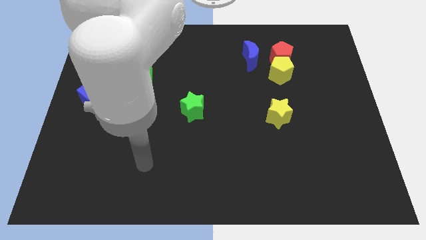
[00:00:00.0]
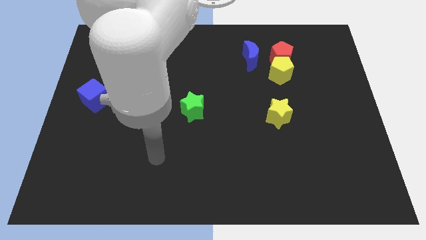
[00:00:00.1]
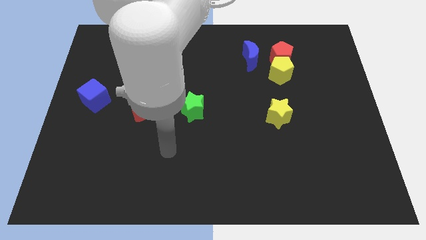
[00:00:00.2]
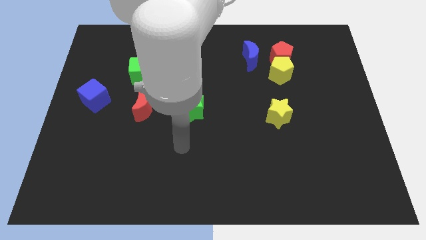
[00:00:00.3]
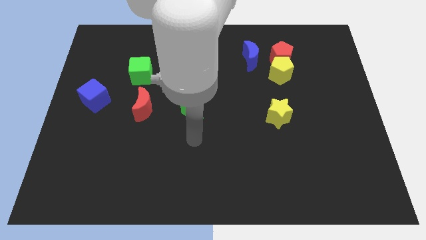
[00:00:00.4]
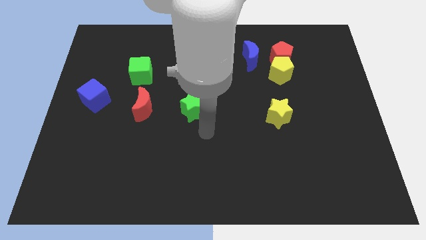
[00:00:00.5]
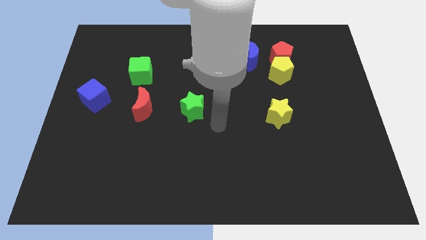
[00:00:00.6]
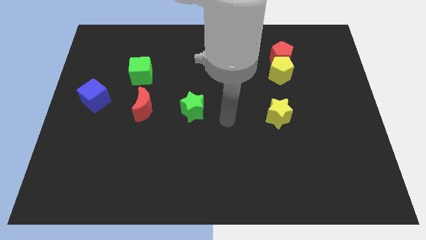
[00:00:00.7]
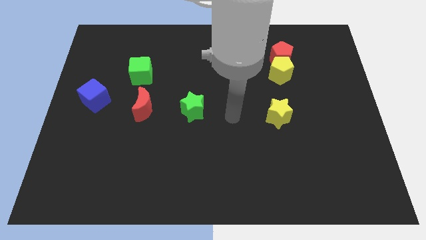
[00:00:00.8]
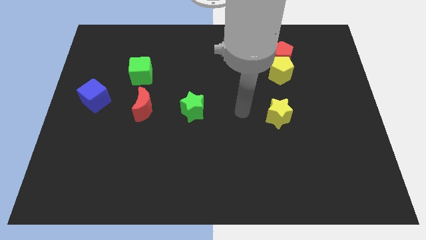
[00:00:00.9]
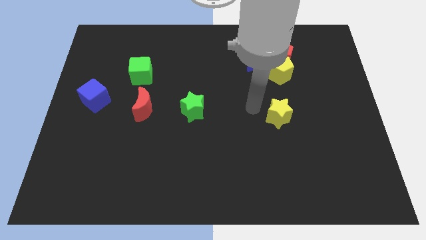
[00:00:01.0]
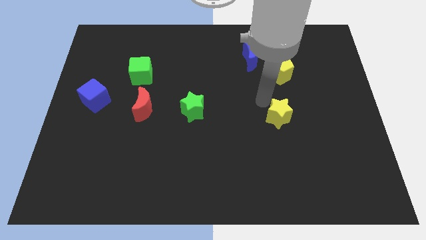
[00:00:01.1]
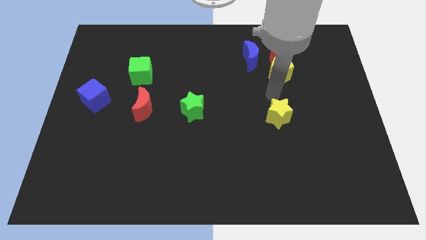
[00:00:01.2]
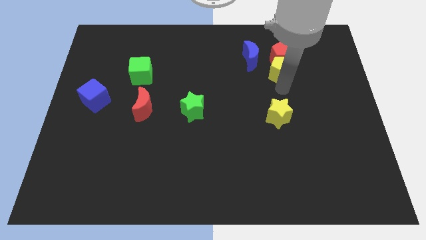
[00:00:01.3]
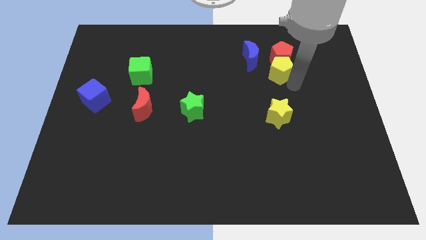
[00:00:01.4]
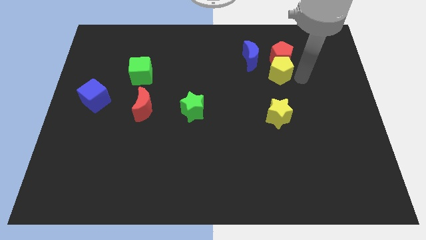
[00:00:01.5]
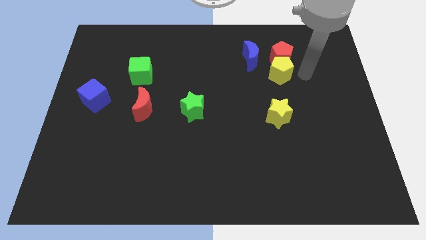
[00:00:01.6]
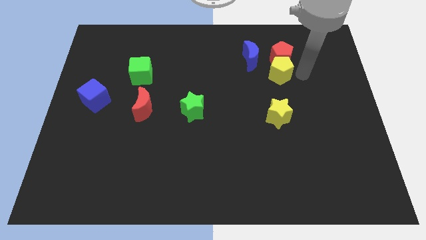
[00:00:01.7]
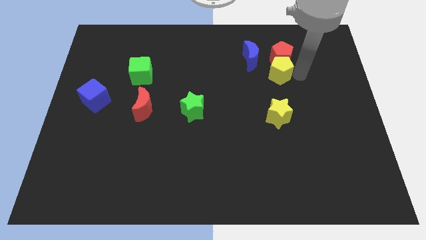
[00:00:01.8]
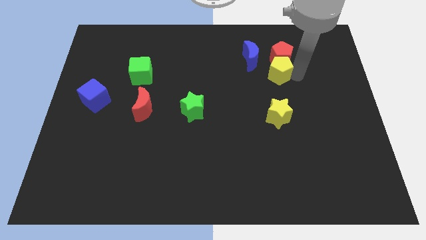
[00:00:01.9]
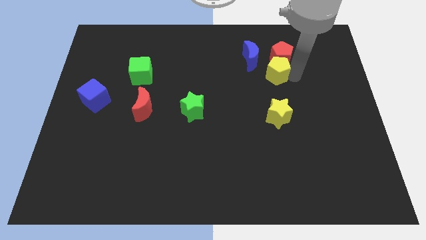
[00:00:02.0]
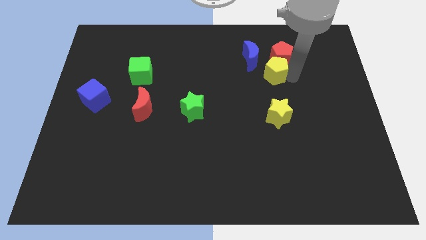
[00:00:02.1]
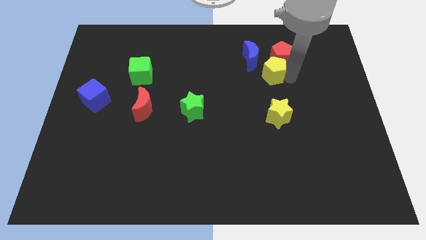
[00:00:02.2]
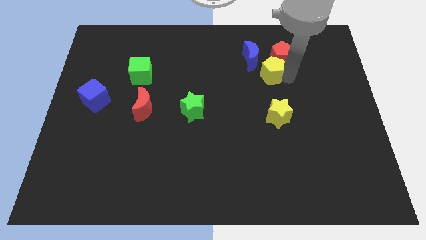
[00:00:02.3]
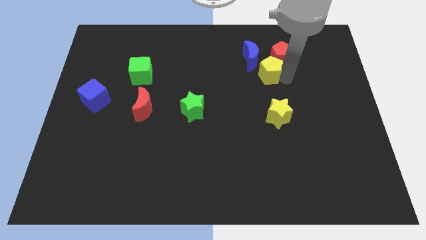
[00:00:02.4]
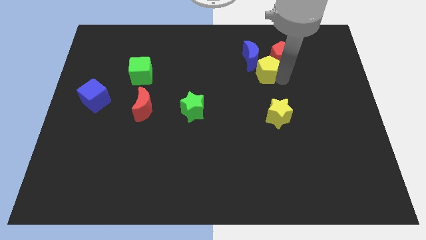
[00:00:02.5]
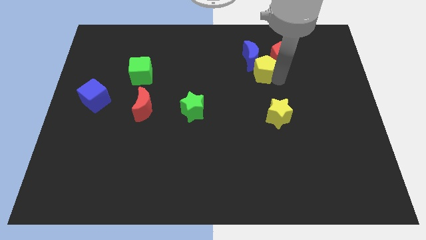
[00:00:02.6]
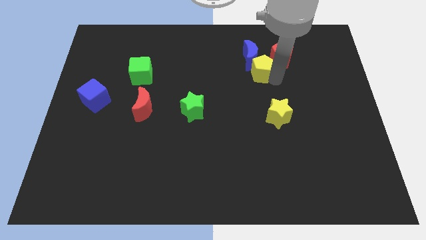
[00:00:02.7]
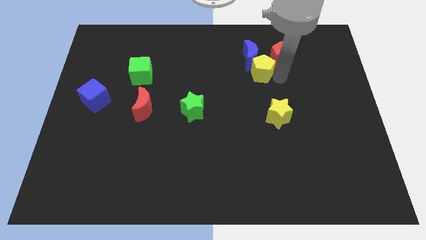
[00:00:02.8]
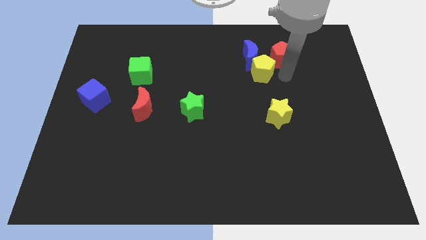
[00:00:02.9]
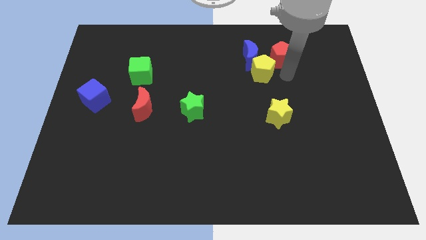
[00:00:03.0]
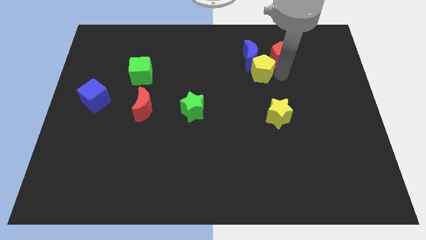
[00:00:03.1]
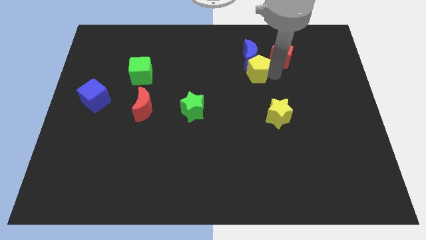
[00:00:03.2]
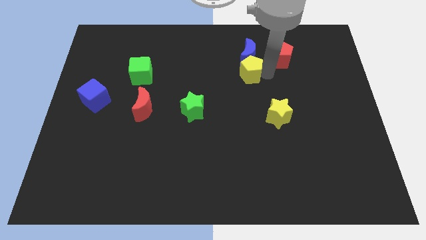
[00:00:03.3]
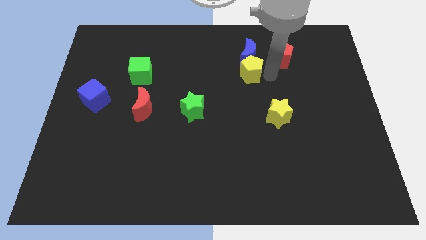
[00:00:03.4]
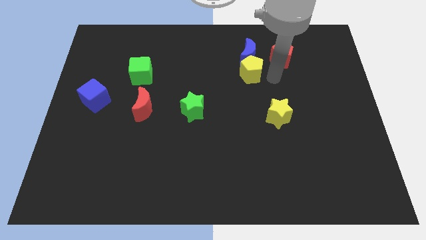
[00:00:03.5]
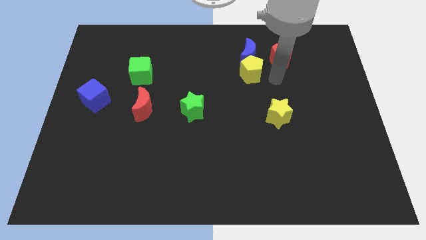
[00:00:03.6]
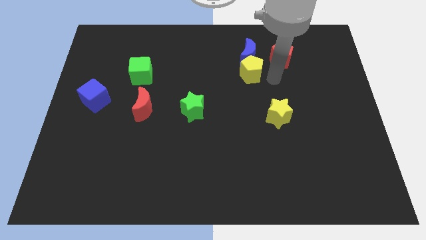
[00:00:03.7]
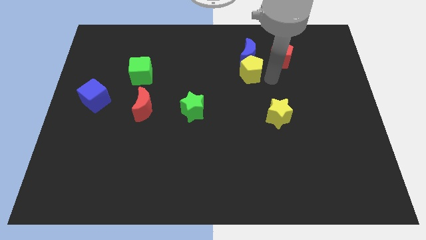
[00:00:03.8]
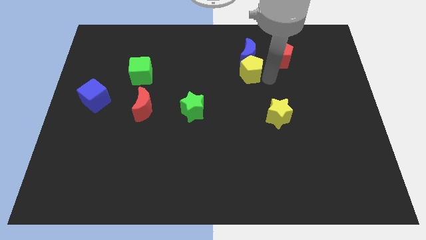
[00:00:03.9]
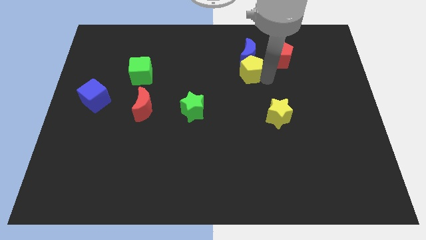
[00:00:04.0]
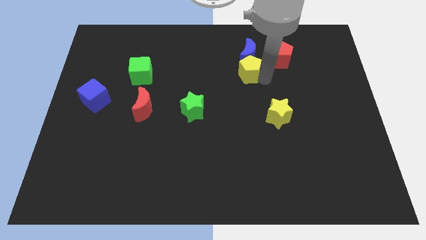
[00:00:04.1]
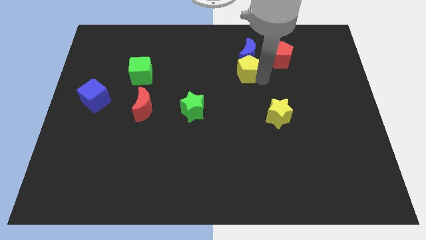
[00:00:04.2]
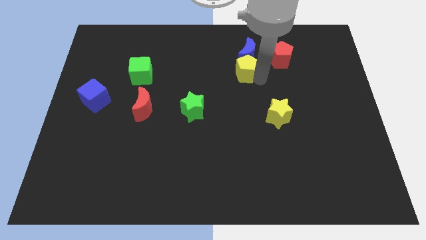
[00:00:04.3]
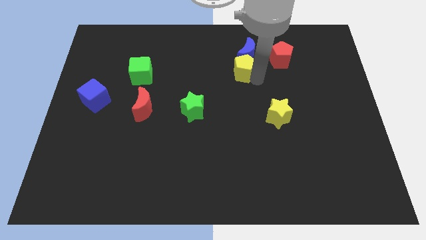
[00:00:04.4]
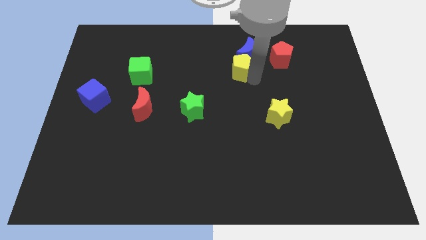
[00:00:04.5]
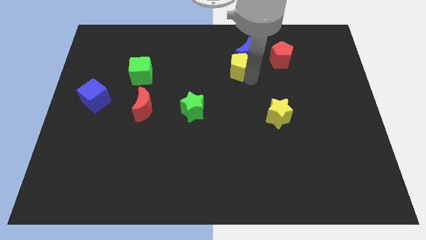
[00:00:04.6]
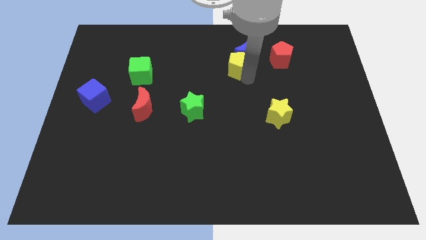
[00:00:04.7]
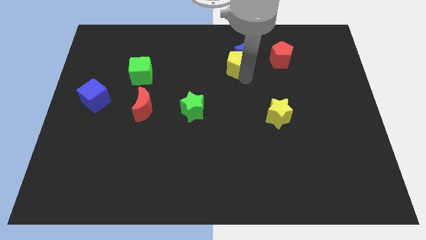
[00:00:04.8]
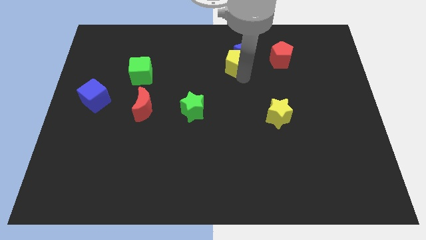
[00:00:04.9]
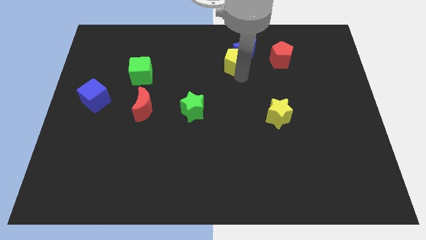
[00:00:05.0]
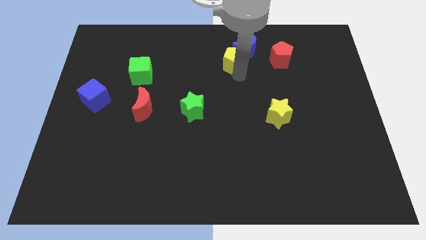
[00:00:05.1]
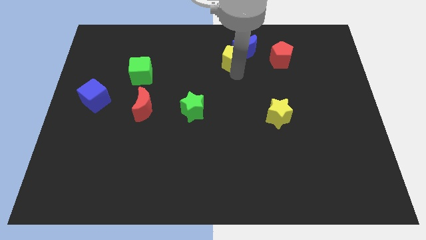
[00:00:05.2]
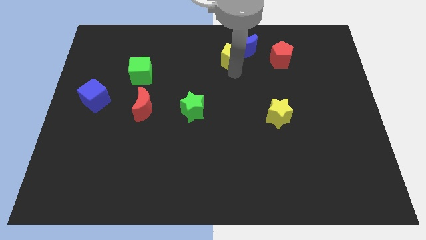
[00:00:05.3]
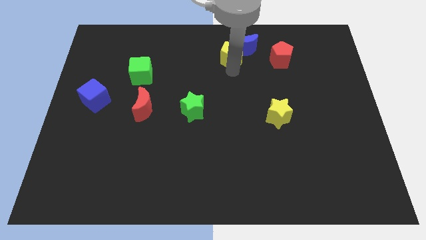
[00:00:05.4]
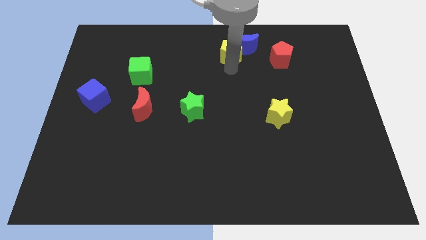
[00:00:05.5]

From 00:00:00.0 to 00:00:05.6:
slide the yellow pentagon to the top

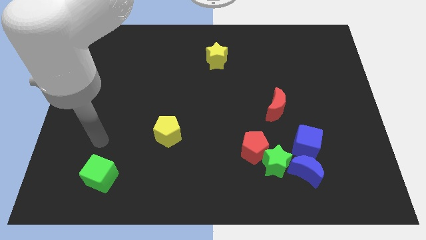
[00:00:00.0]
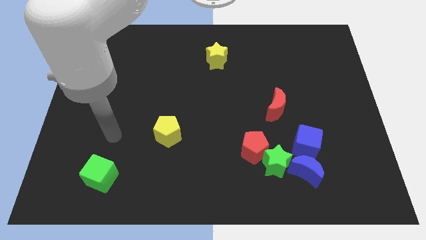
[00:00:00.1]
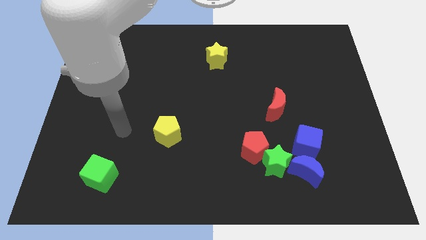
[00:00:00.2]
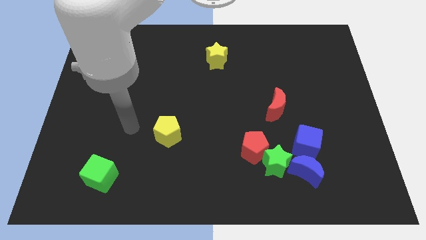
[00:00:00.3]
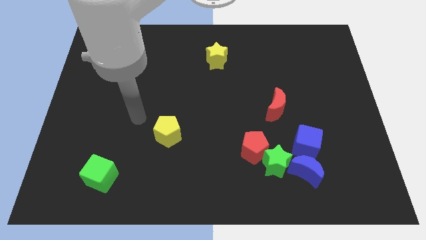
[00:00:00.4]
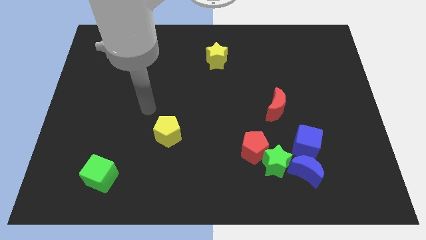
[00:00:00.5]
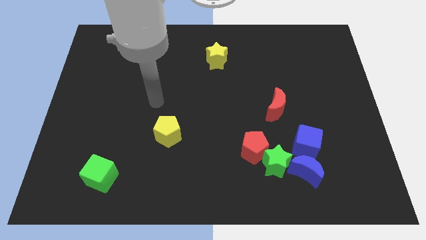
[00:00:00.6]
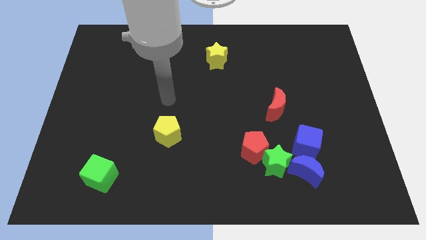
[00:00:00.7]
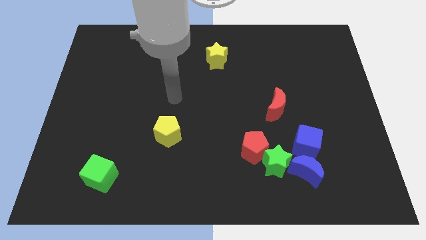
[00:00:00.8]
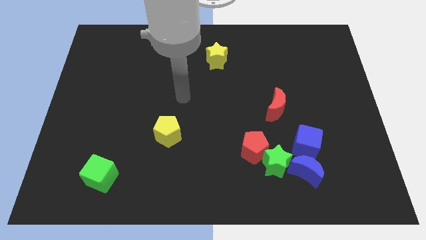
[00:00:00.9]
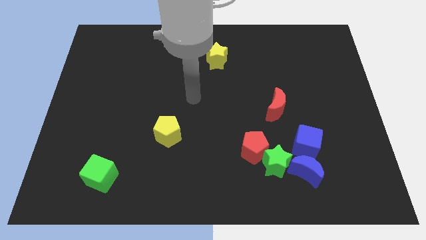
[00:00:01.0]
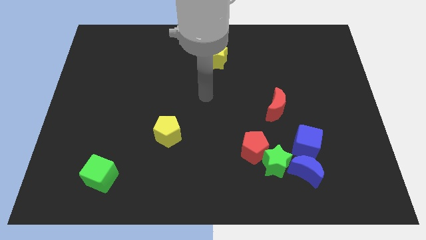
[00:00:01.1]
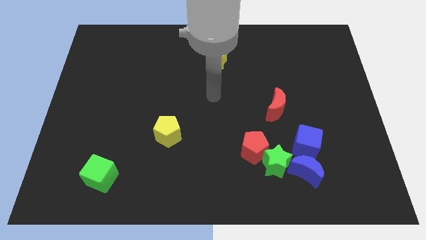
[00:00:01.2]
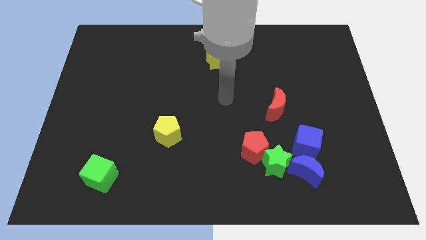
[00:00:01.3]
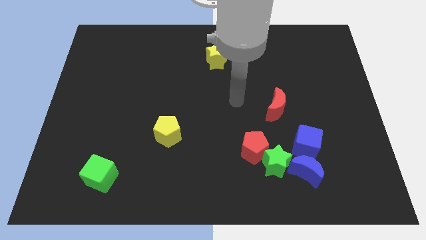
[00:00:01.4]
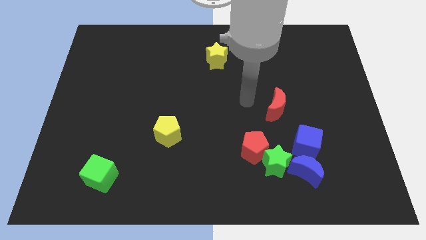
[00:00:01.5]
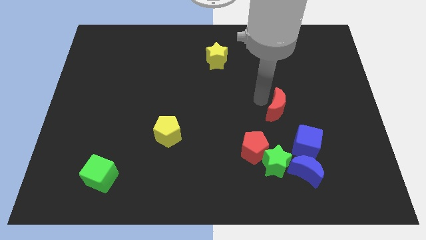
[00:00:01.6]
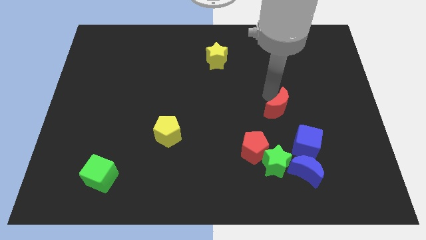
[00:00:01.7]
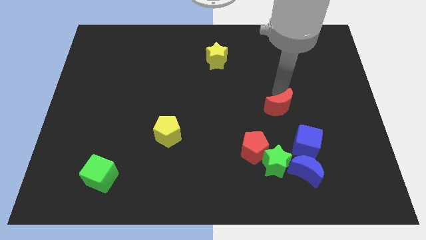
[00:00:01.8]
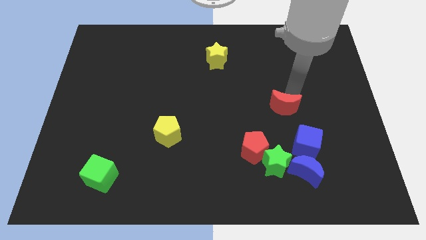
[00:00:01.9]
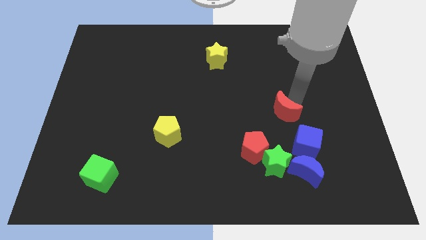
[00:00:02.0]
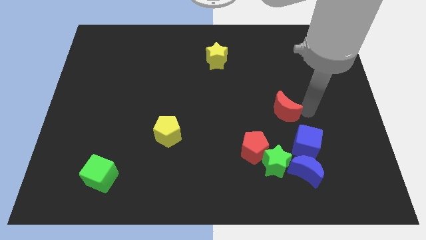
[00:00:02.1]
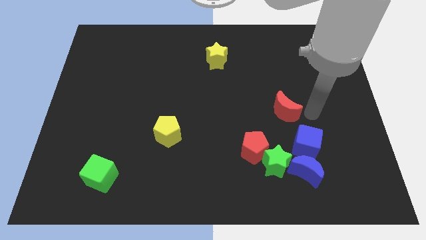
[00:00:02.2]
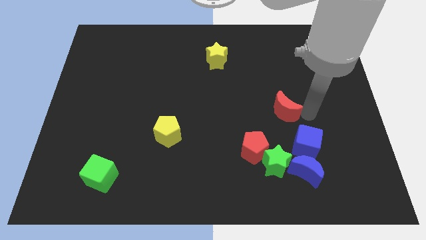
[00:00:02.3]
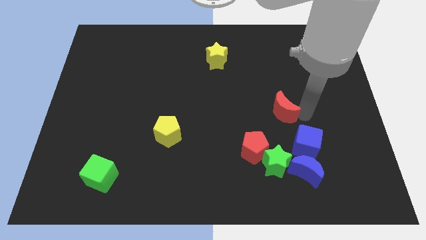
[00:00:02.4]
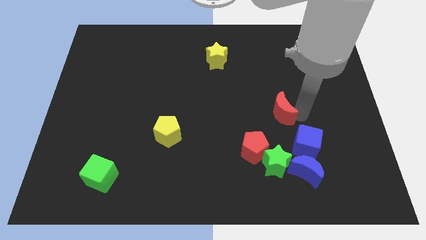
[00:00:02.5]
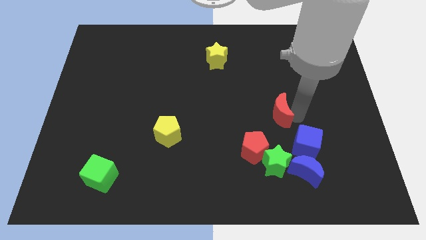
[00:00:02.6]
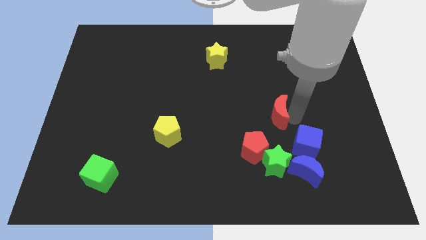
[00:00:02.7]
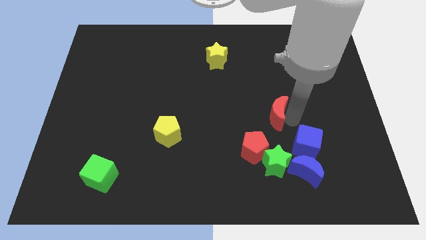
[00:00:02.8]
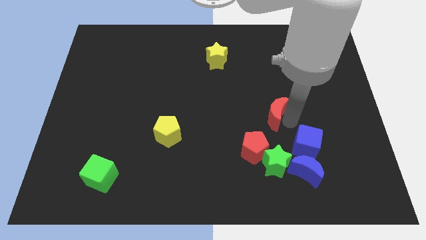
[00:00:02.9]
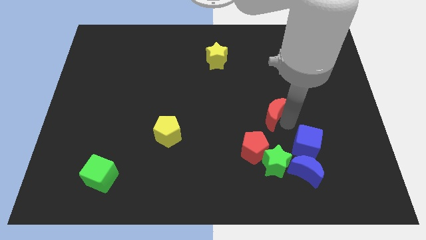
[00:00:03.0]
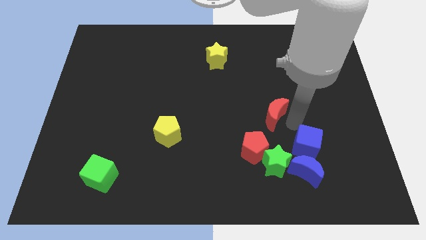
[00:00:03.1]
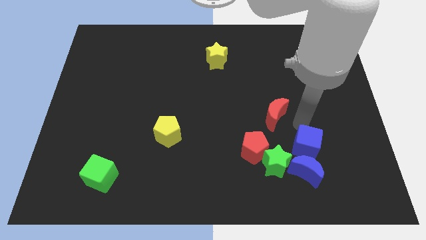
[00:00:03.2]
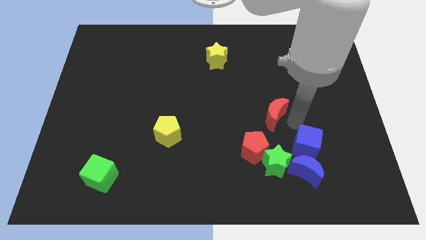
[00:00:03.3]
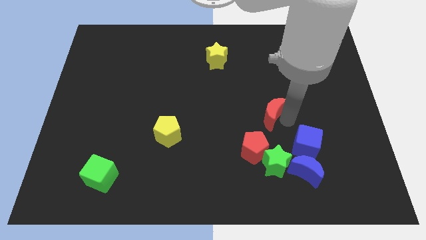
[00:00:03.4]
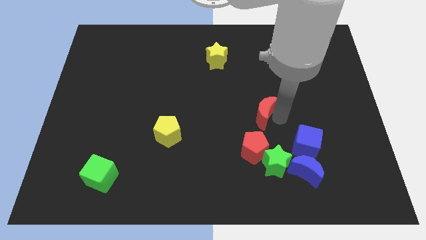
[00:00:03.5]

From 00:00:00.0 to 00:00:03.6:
move the red moon to the center of the board
